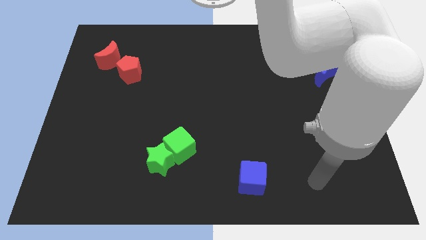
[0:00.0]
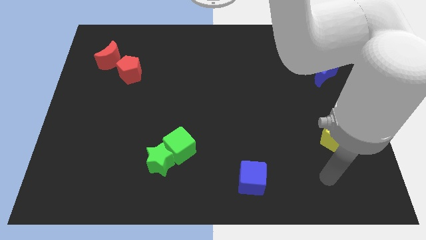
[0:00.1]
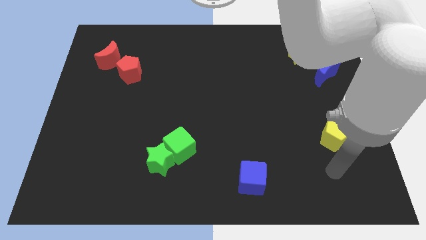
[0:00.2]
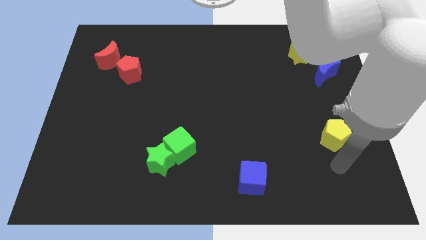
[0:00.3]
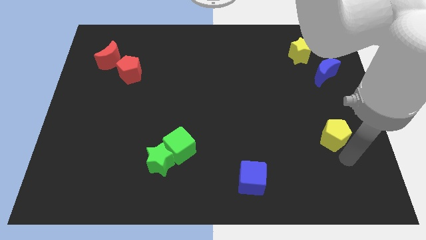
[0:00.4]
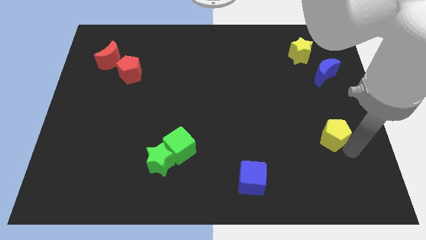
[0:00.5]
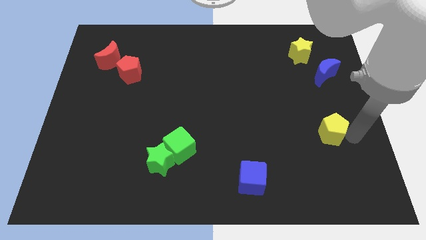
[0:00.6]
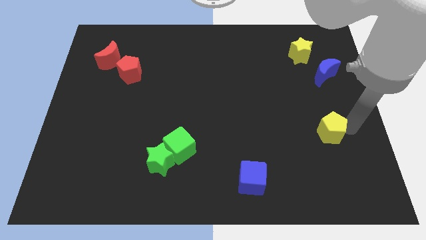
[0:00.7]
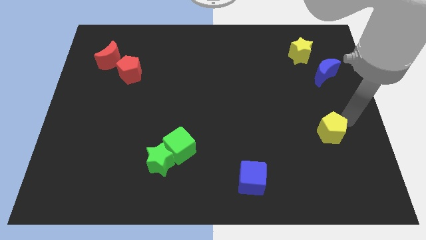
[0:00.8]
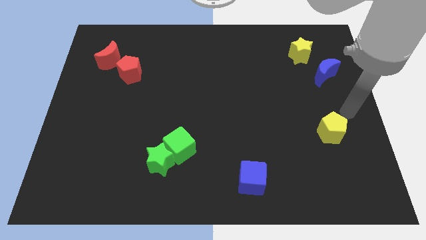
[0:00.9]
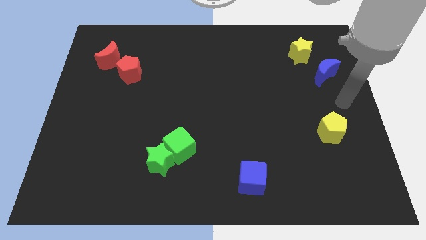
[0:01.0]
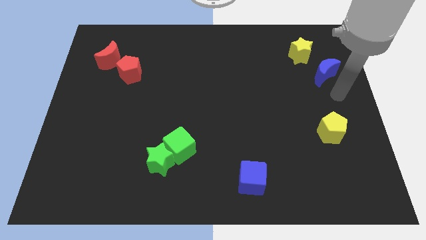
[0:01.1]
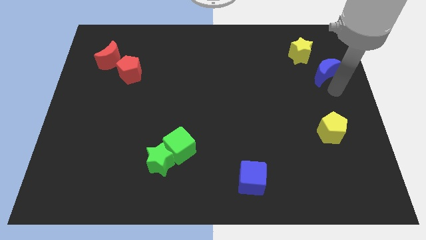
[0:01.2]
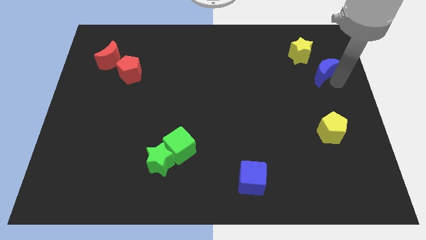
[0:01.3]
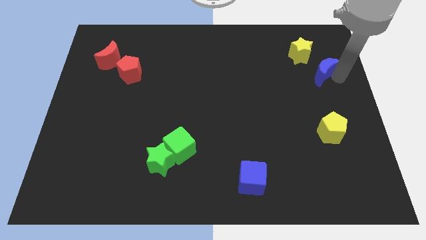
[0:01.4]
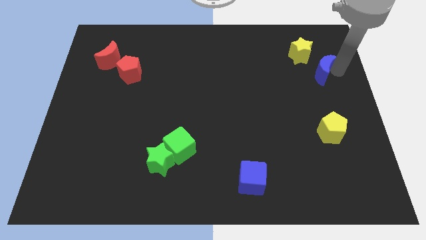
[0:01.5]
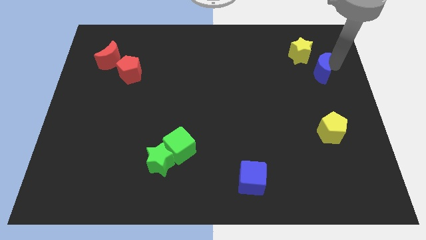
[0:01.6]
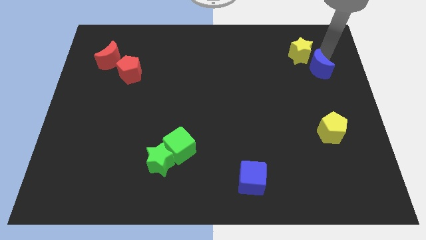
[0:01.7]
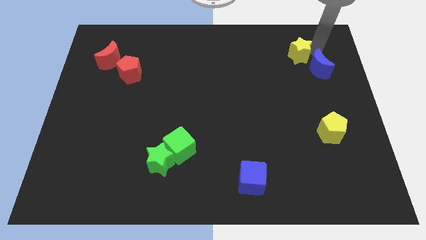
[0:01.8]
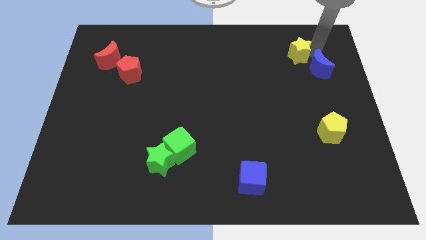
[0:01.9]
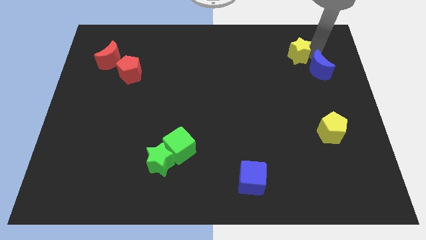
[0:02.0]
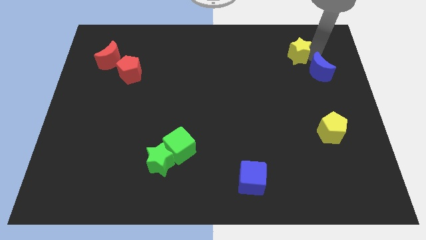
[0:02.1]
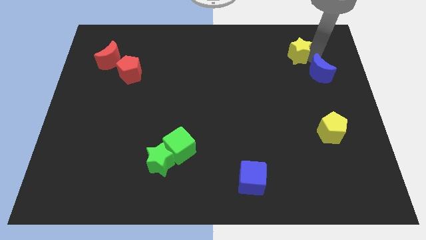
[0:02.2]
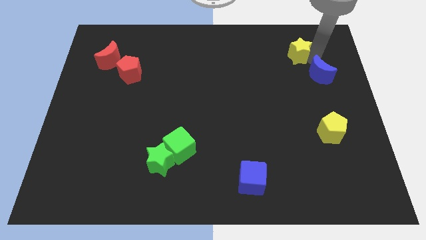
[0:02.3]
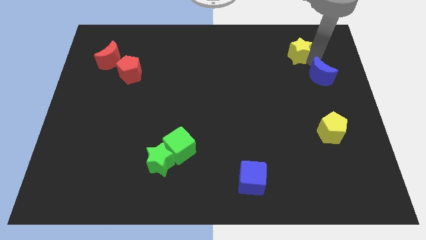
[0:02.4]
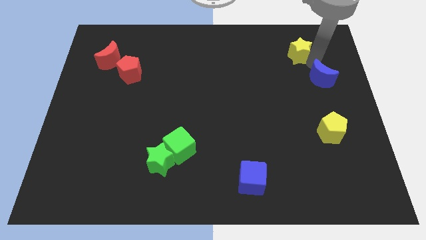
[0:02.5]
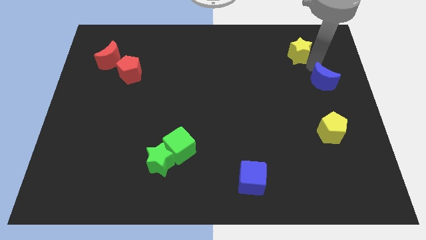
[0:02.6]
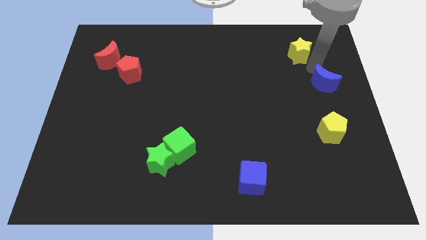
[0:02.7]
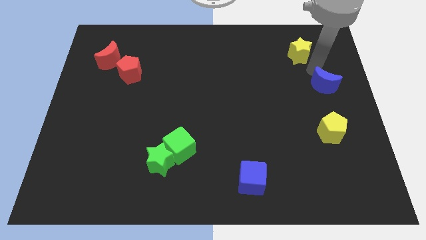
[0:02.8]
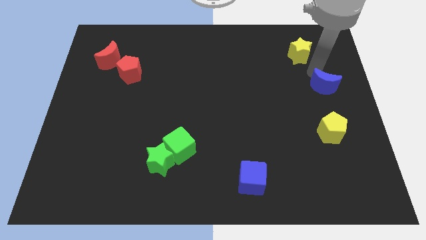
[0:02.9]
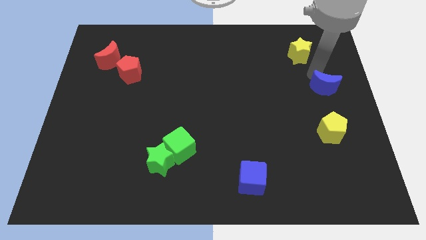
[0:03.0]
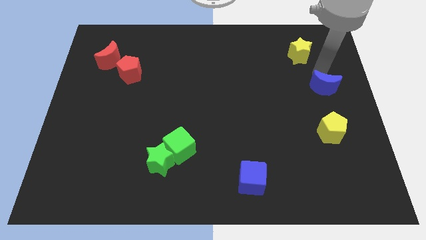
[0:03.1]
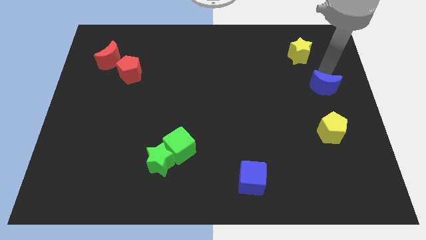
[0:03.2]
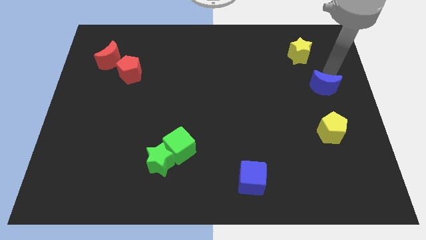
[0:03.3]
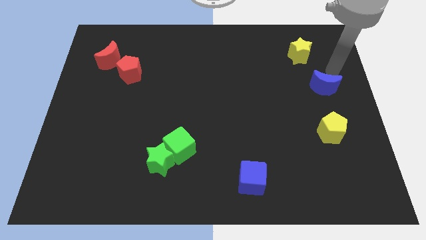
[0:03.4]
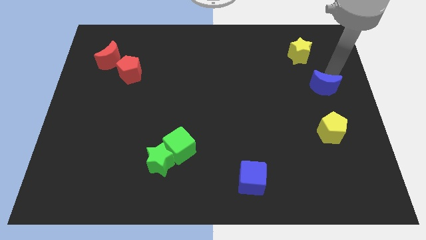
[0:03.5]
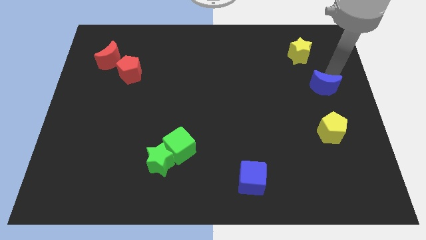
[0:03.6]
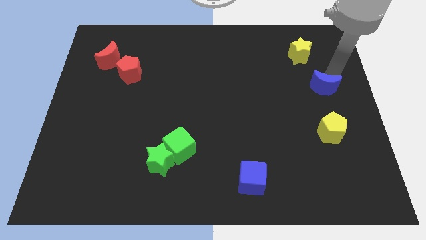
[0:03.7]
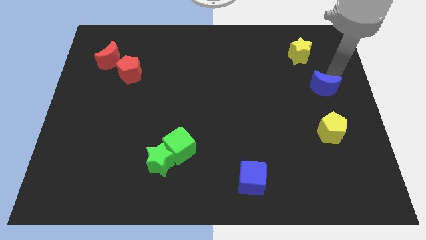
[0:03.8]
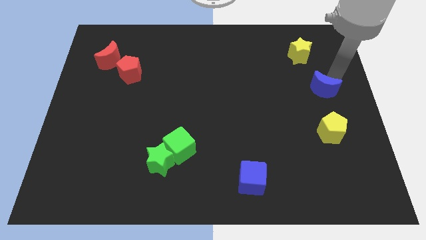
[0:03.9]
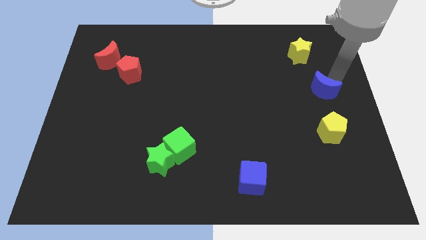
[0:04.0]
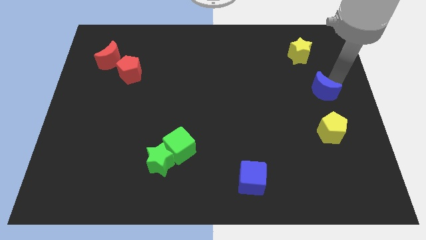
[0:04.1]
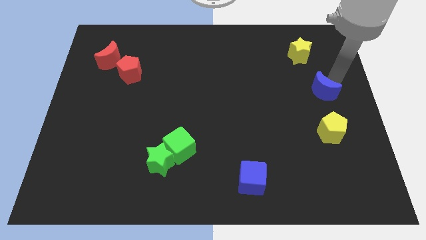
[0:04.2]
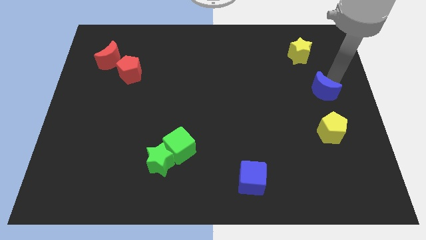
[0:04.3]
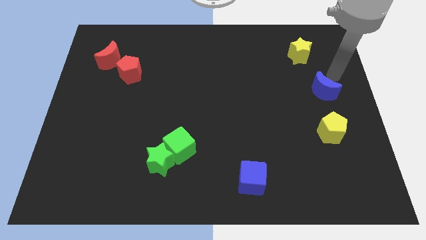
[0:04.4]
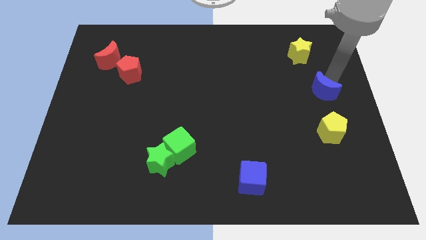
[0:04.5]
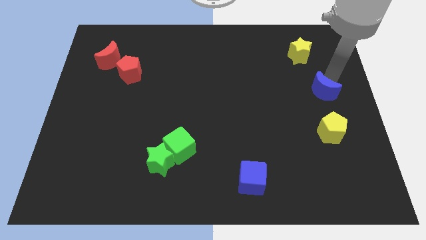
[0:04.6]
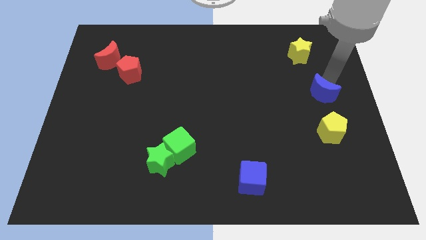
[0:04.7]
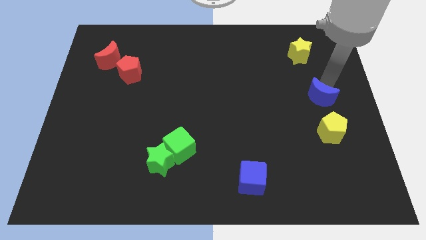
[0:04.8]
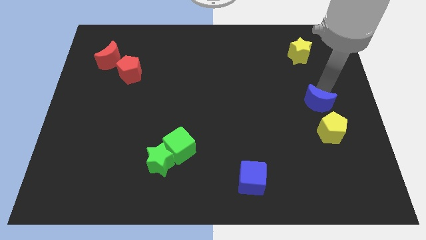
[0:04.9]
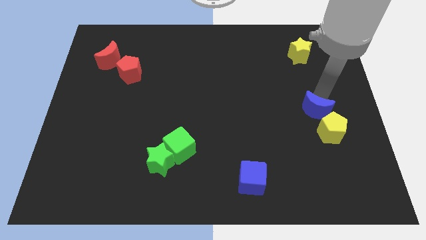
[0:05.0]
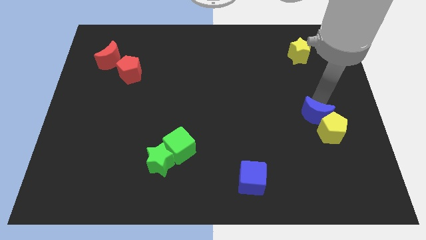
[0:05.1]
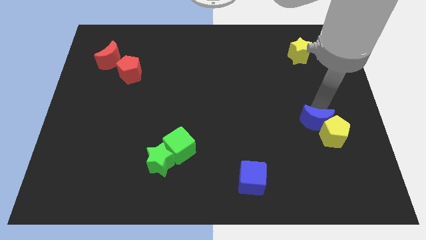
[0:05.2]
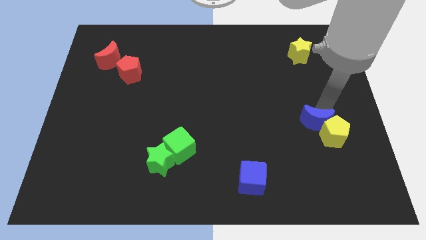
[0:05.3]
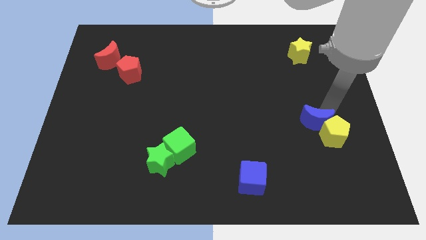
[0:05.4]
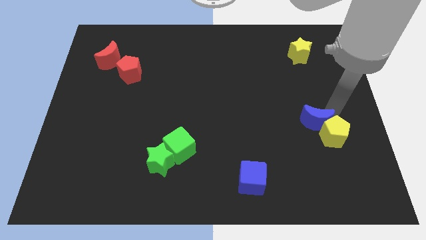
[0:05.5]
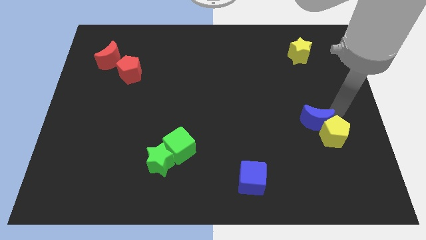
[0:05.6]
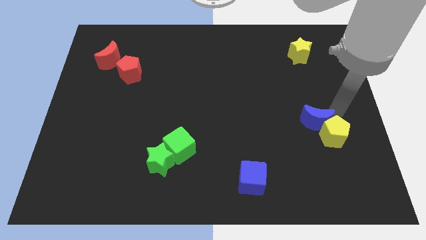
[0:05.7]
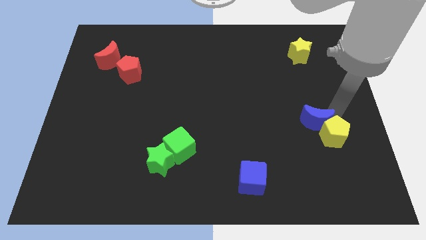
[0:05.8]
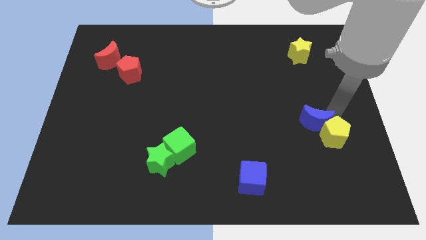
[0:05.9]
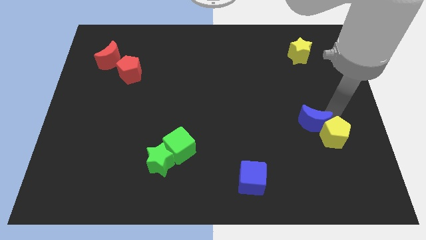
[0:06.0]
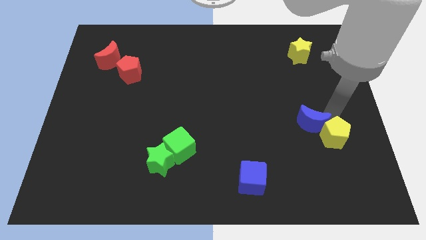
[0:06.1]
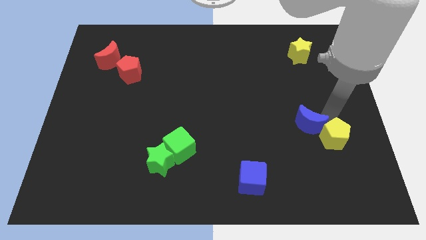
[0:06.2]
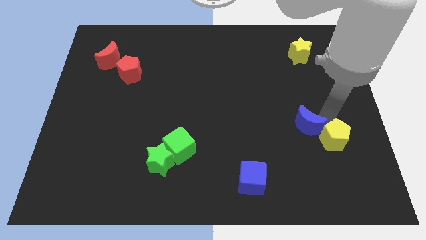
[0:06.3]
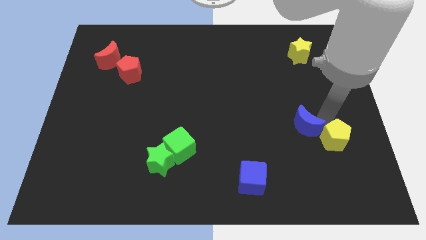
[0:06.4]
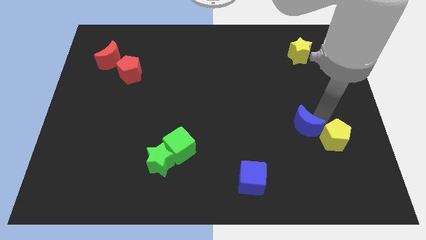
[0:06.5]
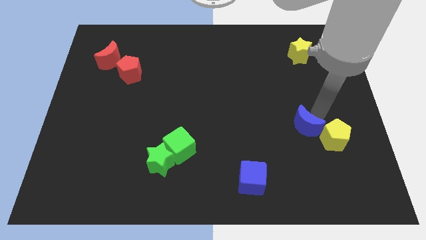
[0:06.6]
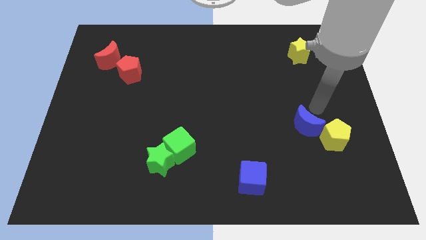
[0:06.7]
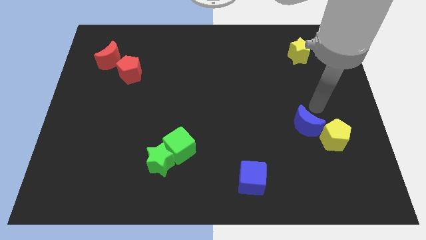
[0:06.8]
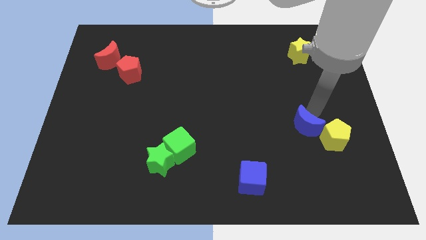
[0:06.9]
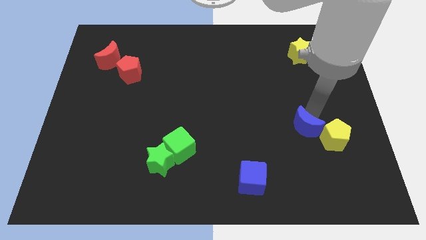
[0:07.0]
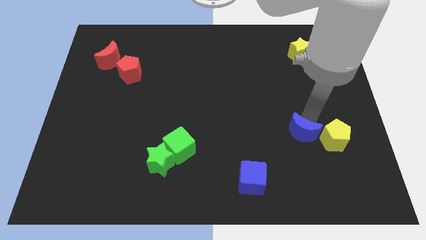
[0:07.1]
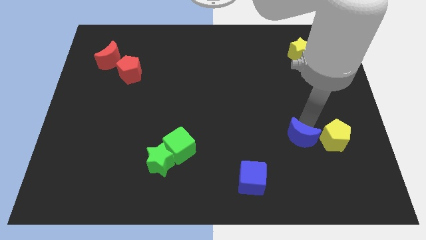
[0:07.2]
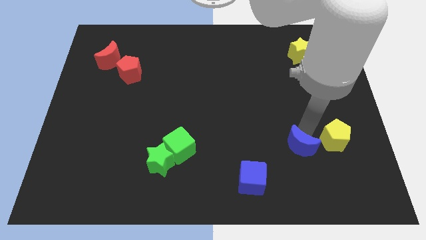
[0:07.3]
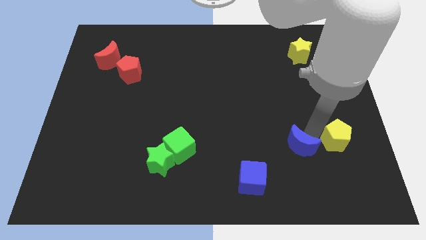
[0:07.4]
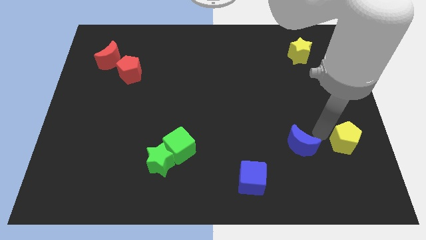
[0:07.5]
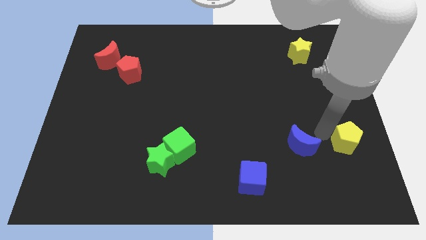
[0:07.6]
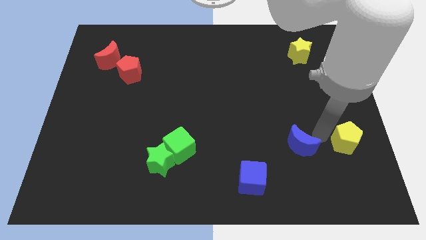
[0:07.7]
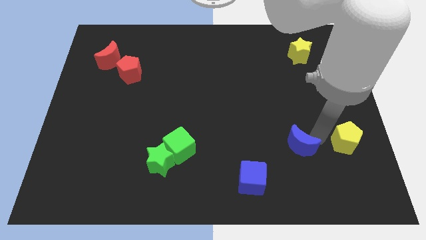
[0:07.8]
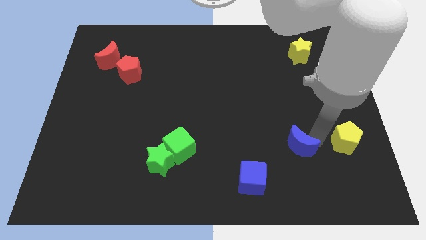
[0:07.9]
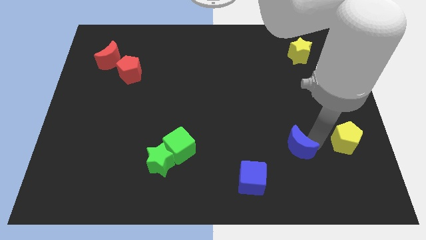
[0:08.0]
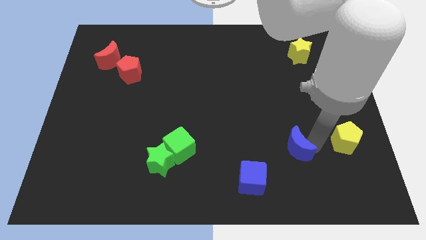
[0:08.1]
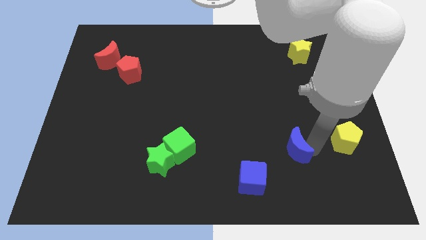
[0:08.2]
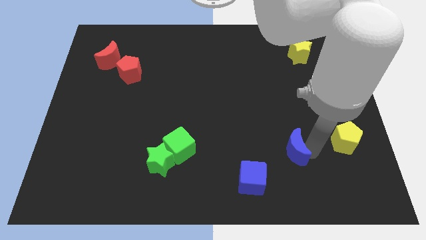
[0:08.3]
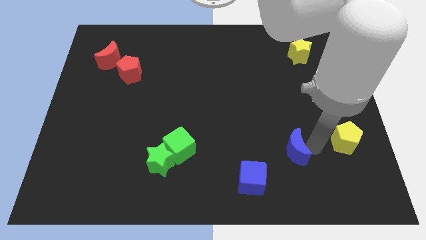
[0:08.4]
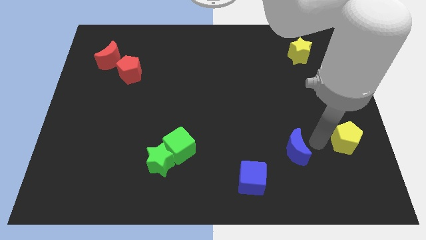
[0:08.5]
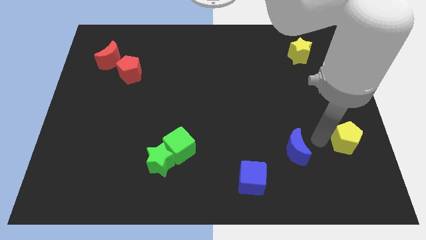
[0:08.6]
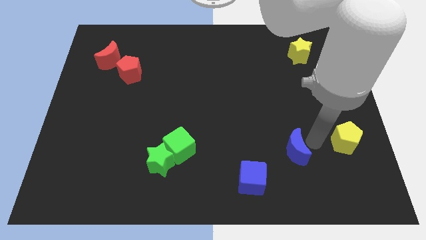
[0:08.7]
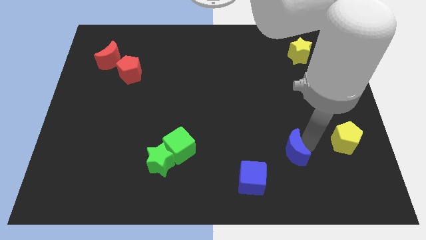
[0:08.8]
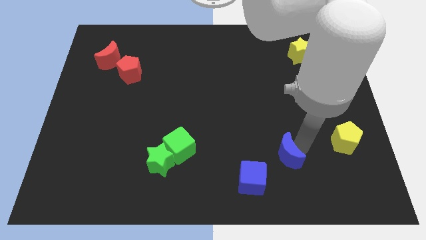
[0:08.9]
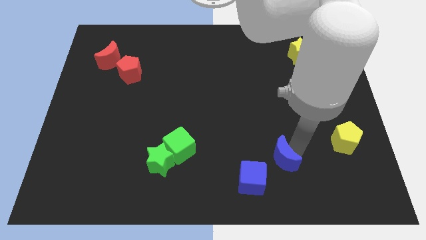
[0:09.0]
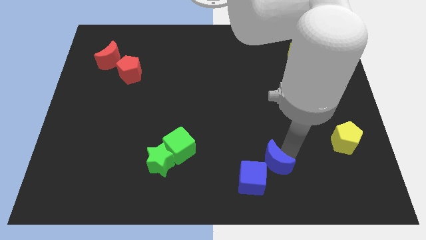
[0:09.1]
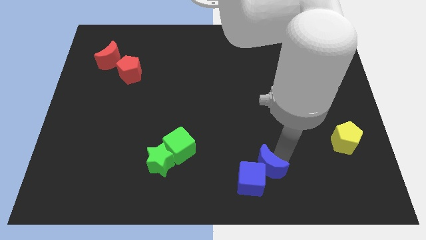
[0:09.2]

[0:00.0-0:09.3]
put the blue moon to the blue cube
